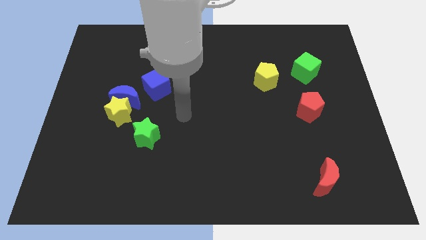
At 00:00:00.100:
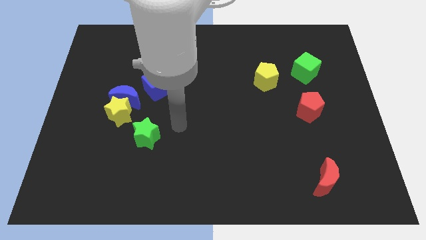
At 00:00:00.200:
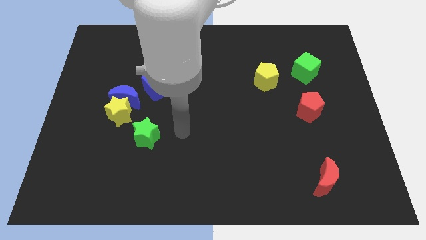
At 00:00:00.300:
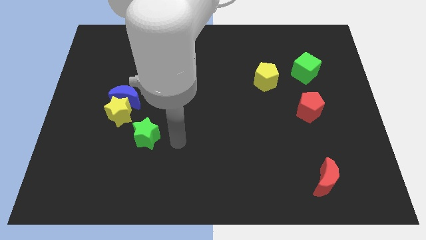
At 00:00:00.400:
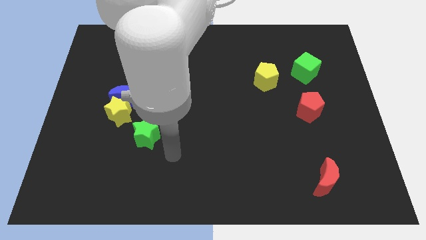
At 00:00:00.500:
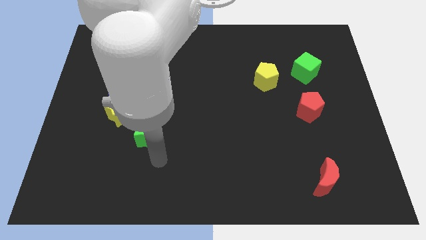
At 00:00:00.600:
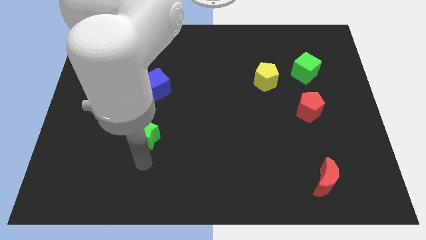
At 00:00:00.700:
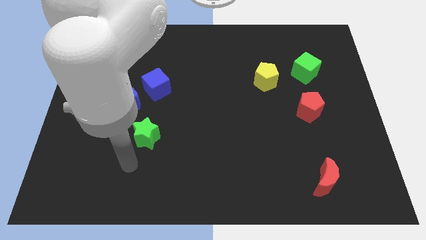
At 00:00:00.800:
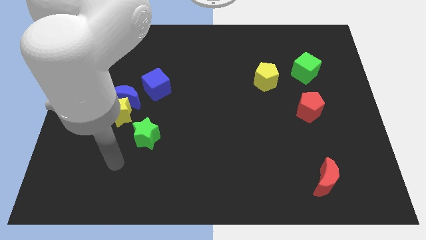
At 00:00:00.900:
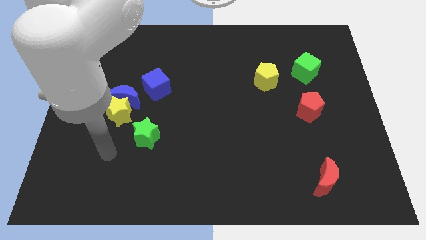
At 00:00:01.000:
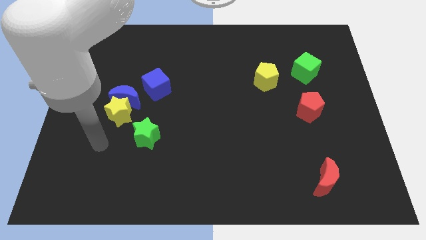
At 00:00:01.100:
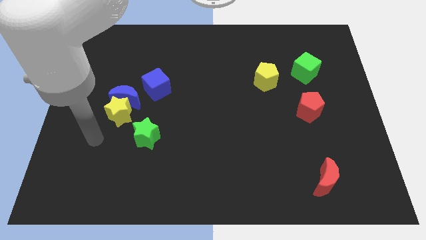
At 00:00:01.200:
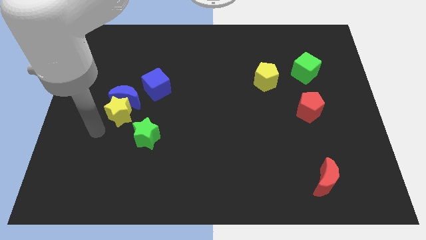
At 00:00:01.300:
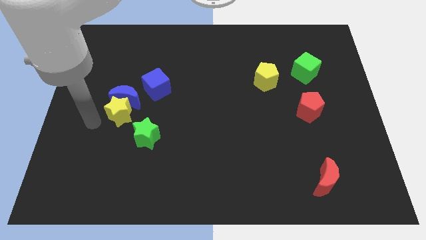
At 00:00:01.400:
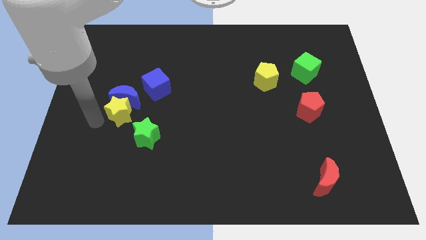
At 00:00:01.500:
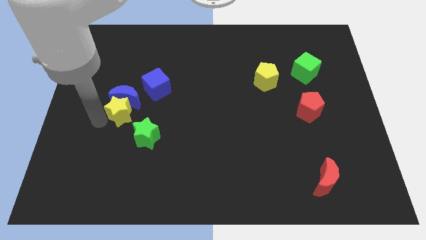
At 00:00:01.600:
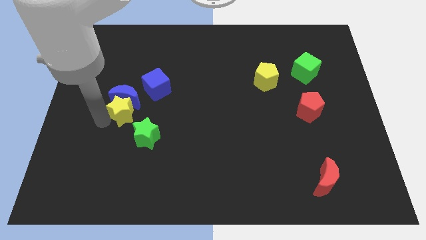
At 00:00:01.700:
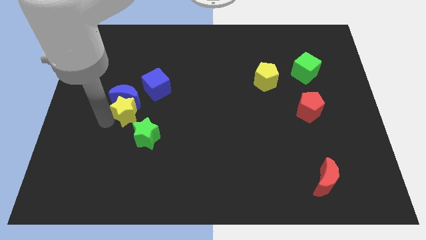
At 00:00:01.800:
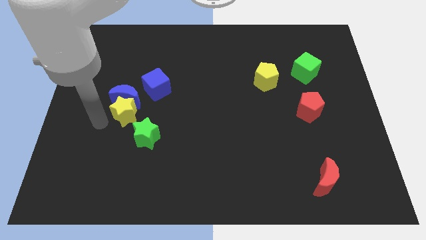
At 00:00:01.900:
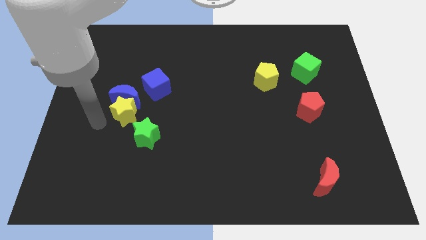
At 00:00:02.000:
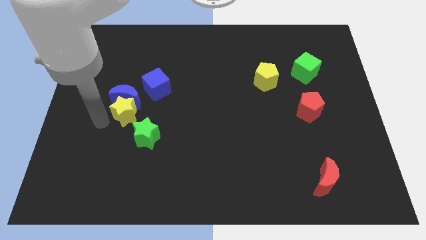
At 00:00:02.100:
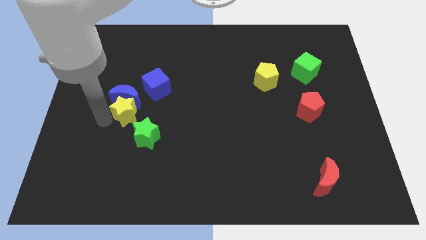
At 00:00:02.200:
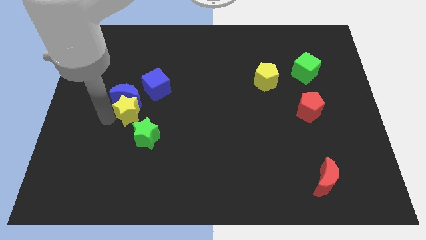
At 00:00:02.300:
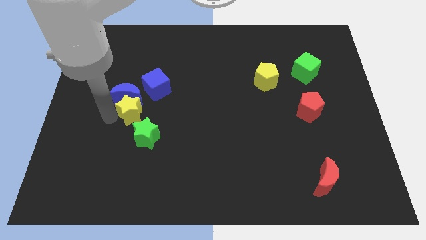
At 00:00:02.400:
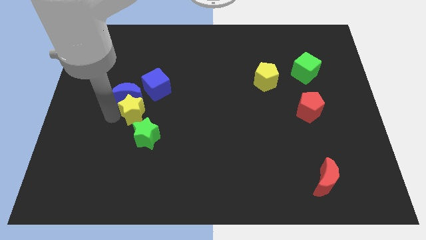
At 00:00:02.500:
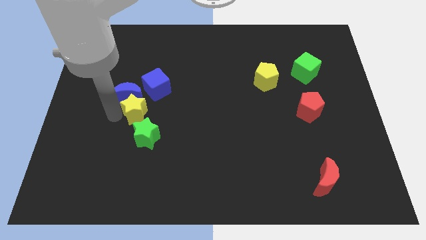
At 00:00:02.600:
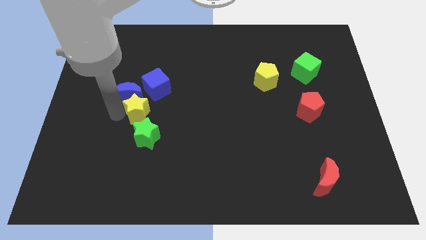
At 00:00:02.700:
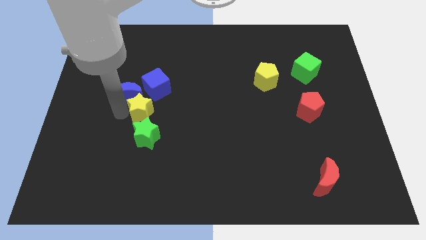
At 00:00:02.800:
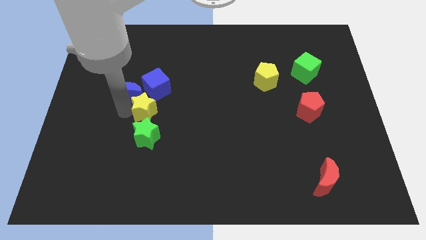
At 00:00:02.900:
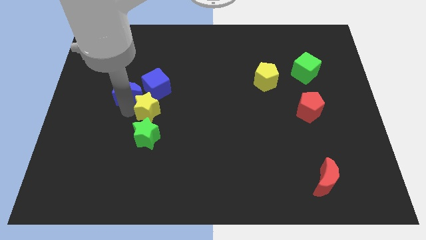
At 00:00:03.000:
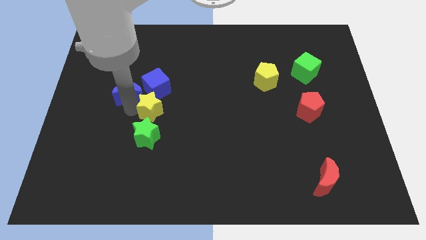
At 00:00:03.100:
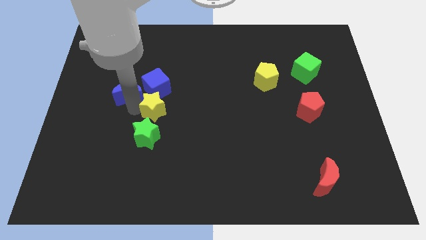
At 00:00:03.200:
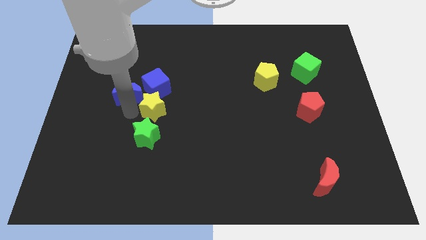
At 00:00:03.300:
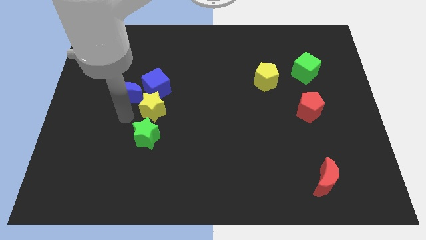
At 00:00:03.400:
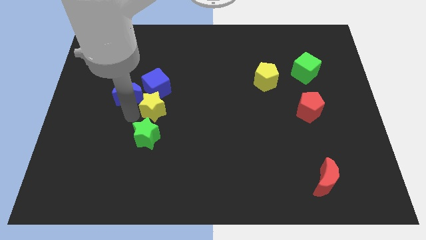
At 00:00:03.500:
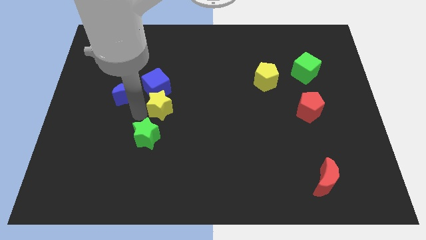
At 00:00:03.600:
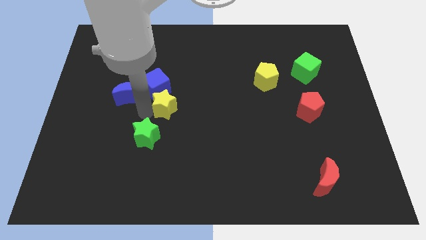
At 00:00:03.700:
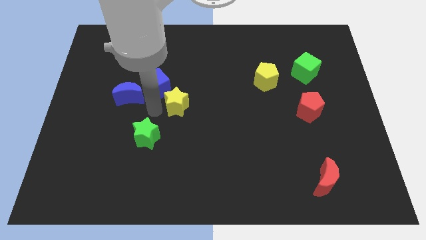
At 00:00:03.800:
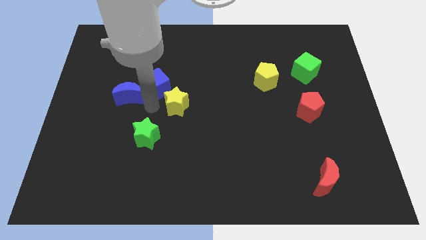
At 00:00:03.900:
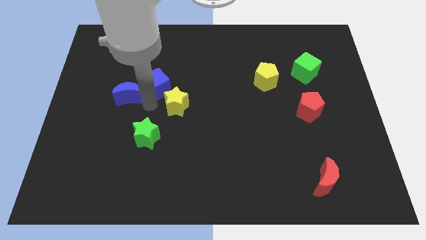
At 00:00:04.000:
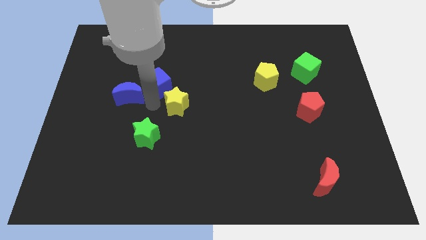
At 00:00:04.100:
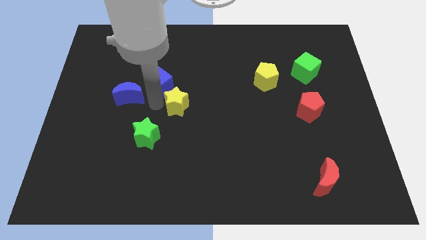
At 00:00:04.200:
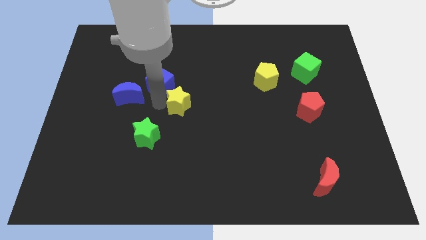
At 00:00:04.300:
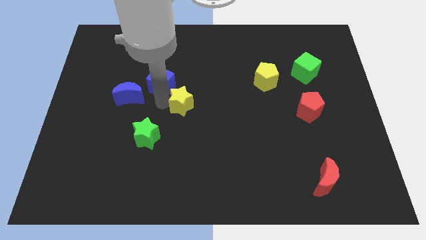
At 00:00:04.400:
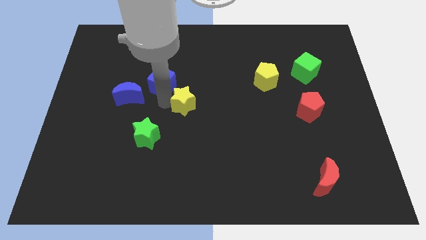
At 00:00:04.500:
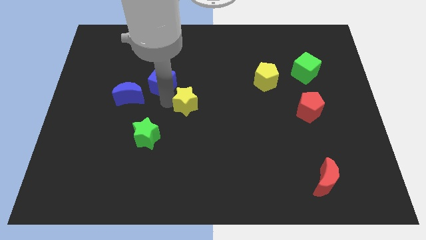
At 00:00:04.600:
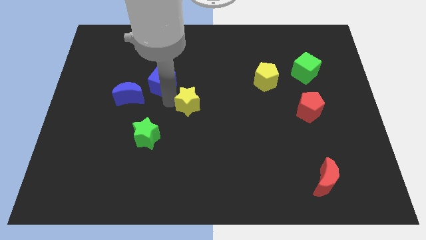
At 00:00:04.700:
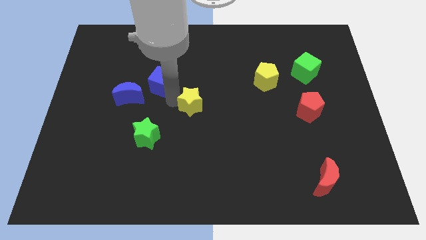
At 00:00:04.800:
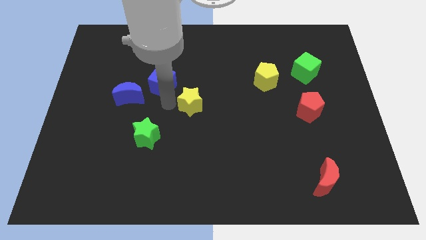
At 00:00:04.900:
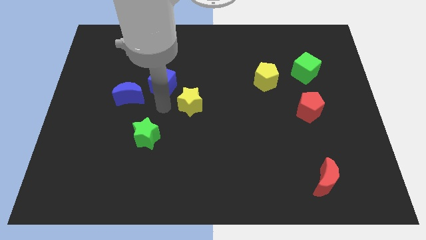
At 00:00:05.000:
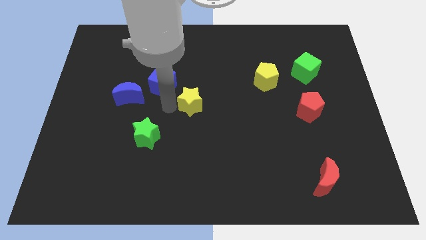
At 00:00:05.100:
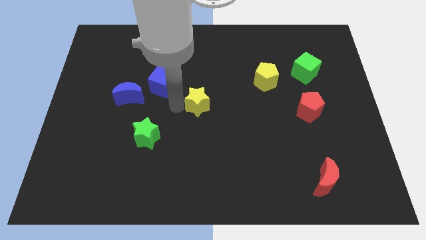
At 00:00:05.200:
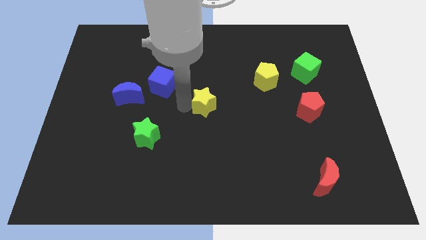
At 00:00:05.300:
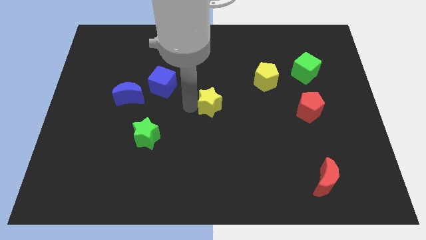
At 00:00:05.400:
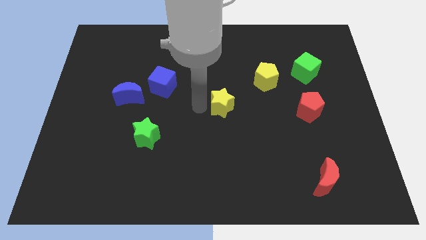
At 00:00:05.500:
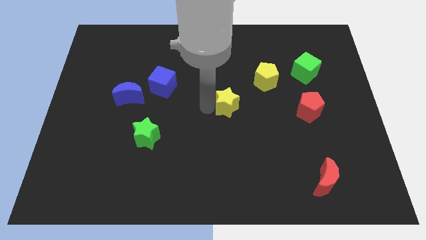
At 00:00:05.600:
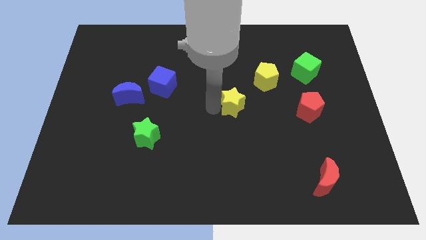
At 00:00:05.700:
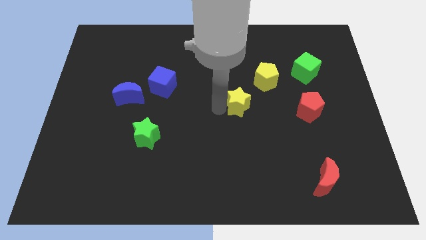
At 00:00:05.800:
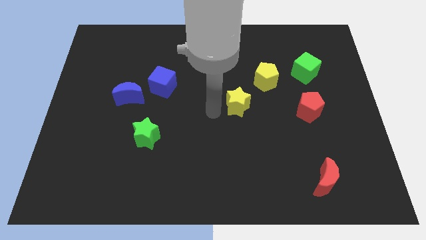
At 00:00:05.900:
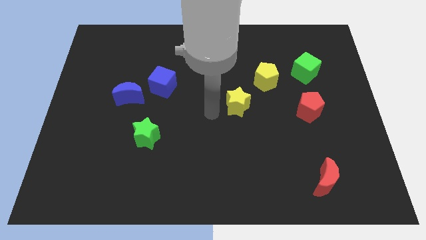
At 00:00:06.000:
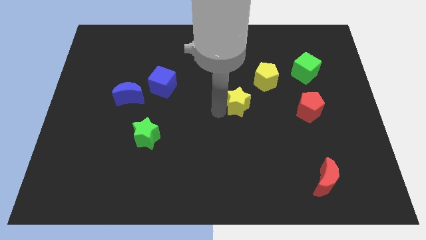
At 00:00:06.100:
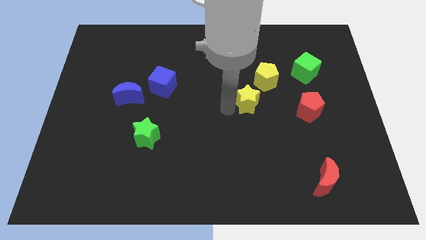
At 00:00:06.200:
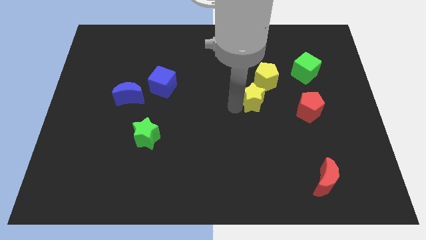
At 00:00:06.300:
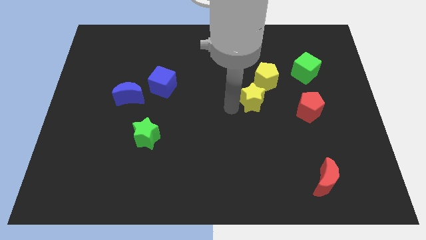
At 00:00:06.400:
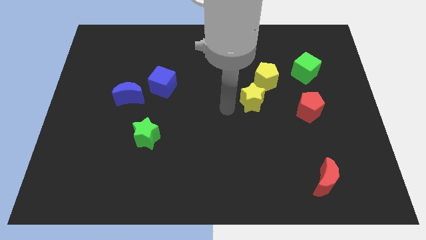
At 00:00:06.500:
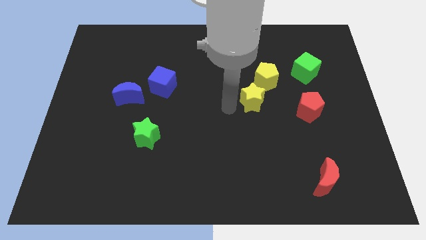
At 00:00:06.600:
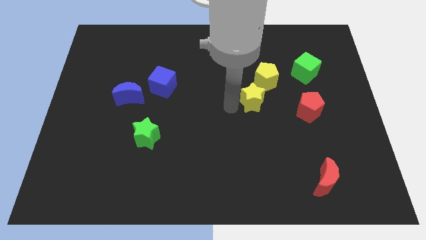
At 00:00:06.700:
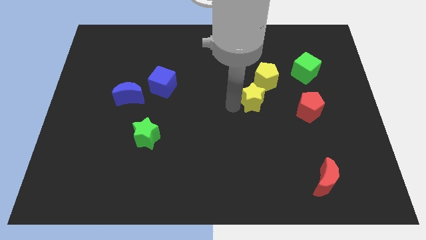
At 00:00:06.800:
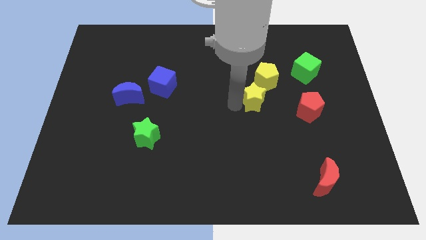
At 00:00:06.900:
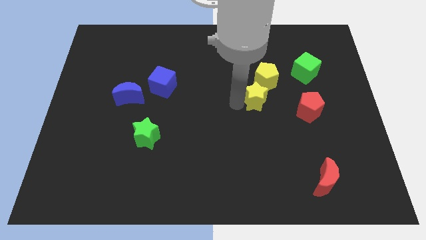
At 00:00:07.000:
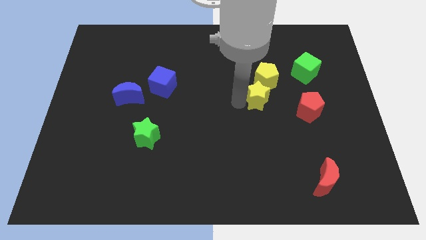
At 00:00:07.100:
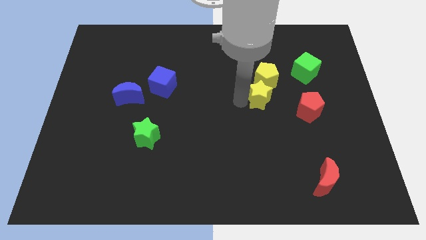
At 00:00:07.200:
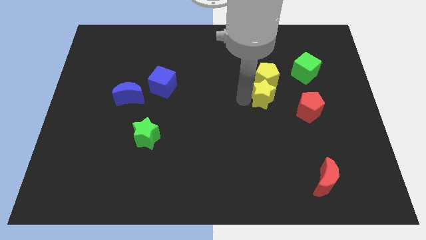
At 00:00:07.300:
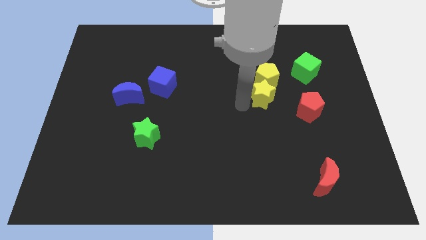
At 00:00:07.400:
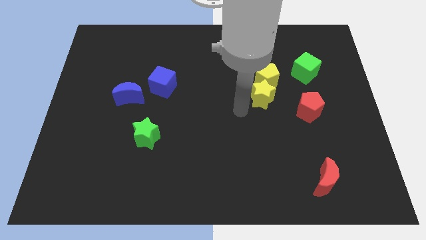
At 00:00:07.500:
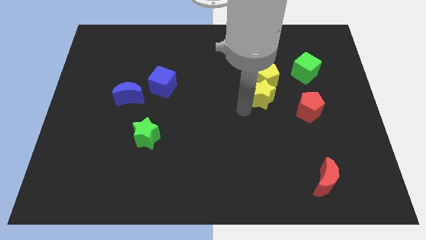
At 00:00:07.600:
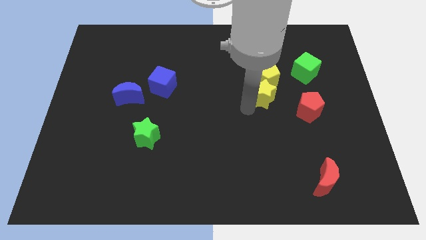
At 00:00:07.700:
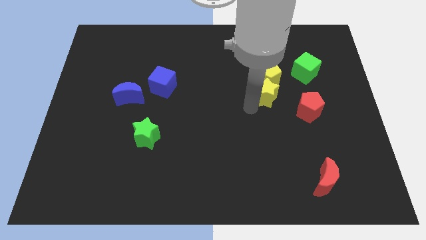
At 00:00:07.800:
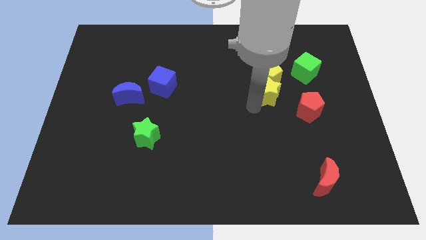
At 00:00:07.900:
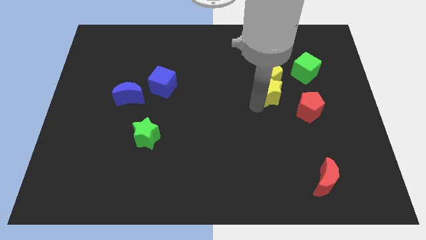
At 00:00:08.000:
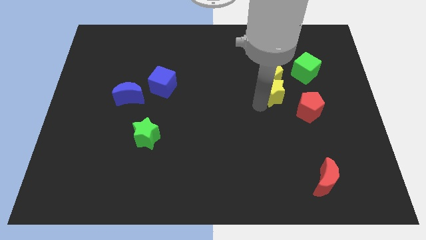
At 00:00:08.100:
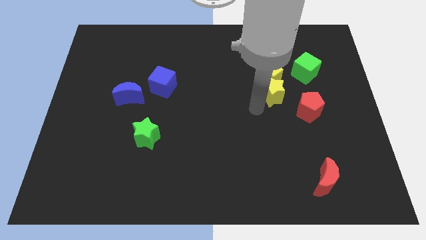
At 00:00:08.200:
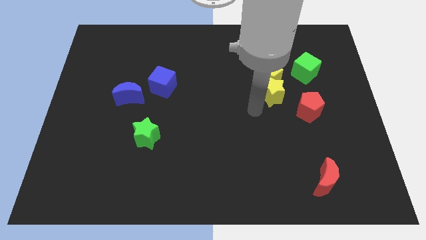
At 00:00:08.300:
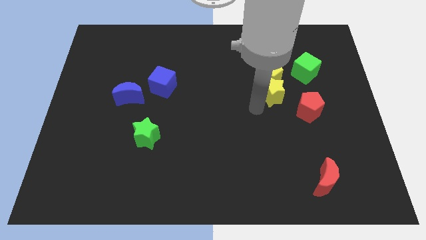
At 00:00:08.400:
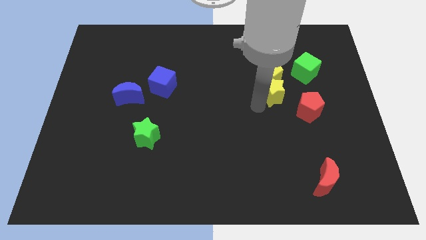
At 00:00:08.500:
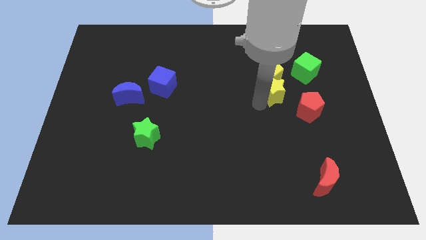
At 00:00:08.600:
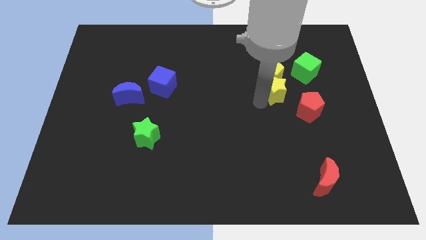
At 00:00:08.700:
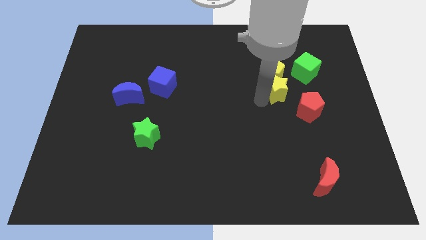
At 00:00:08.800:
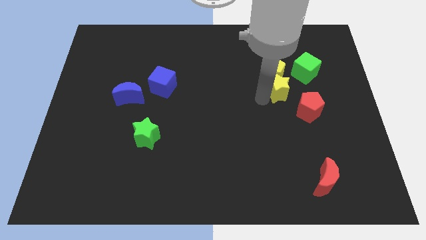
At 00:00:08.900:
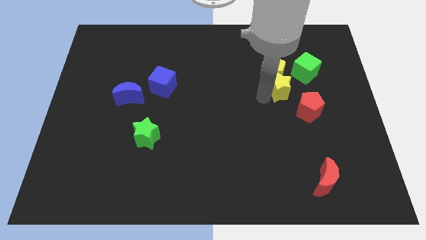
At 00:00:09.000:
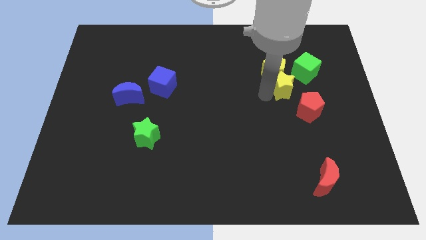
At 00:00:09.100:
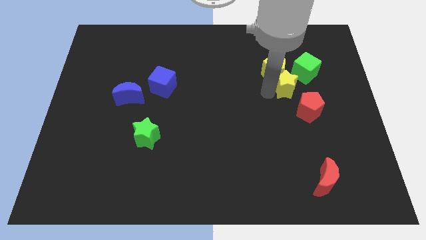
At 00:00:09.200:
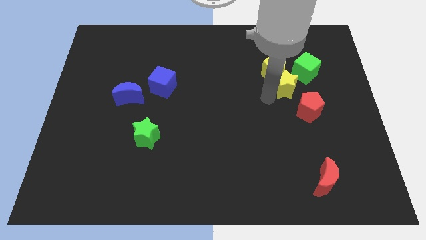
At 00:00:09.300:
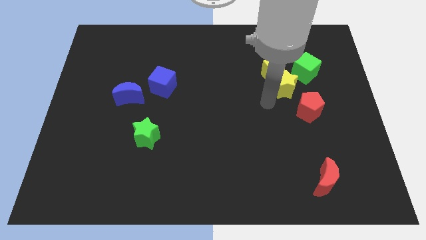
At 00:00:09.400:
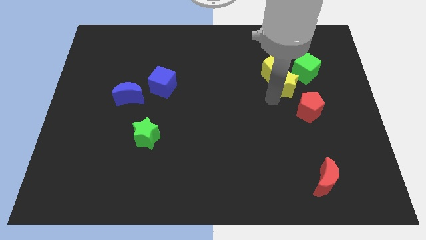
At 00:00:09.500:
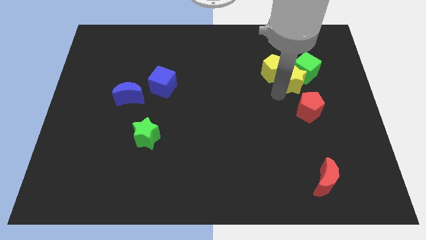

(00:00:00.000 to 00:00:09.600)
put the yellow star next to the green cube
